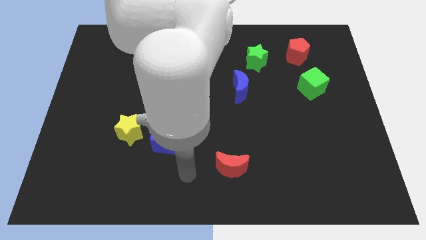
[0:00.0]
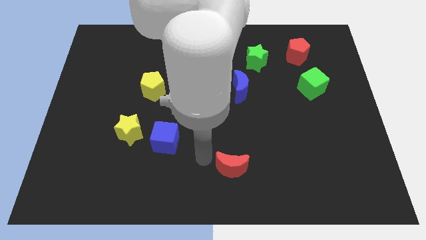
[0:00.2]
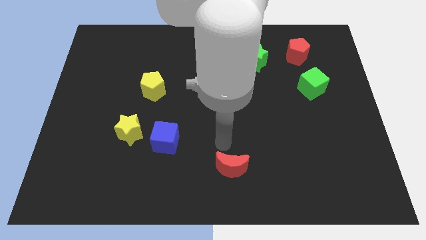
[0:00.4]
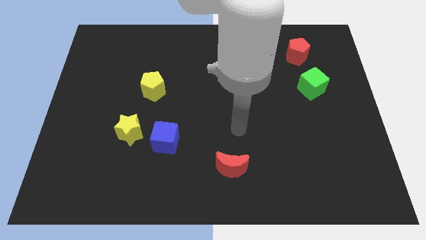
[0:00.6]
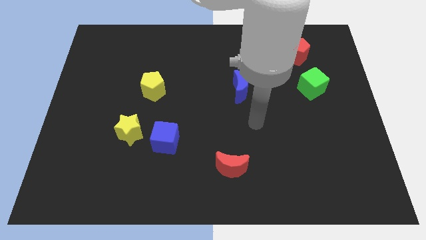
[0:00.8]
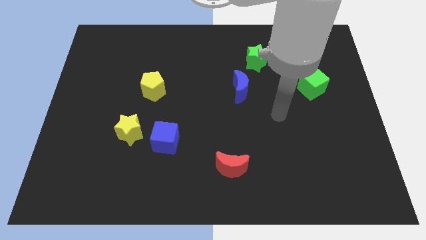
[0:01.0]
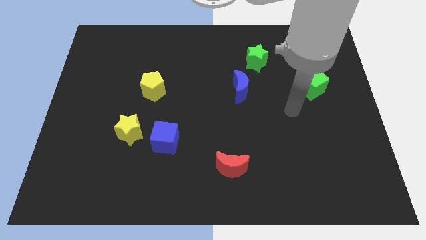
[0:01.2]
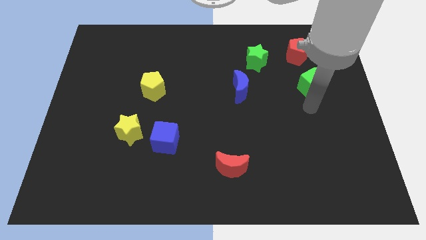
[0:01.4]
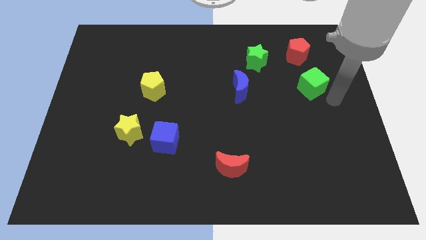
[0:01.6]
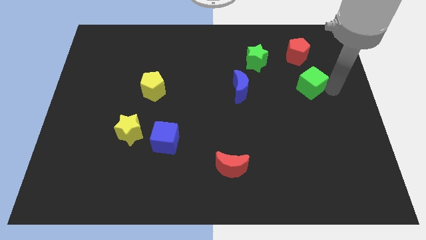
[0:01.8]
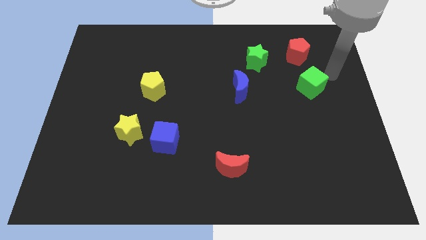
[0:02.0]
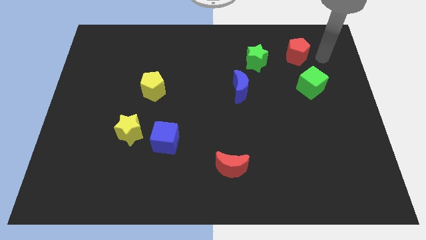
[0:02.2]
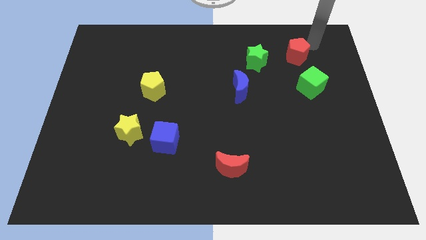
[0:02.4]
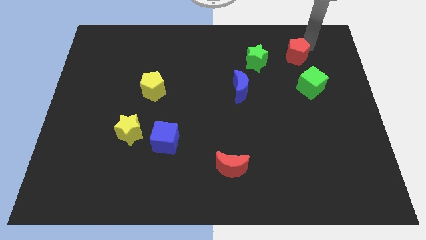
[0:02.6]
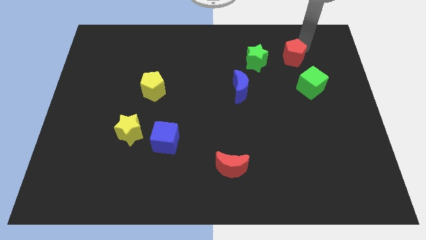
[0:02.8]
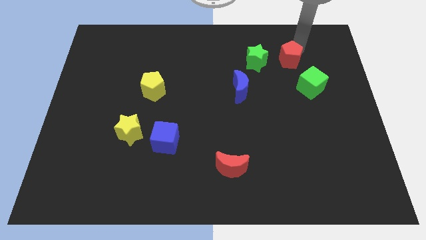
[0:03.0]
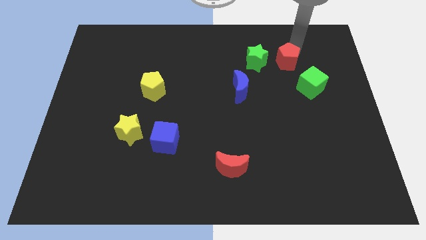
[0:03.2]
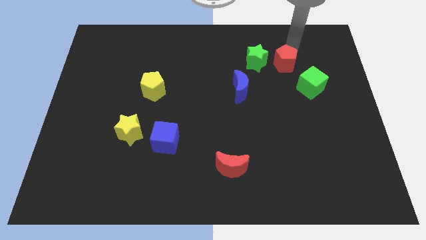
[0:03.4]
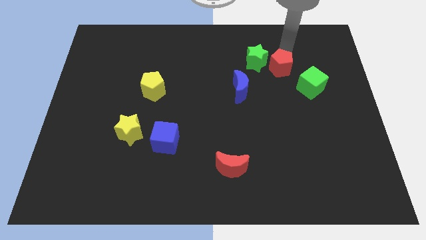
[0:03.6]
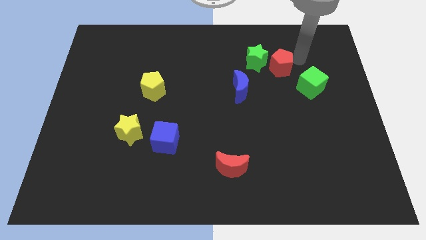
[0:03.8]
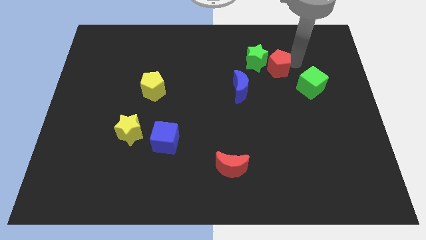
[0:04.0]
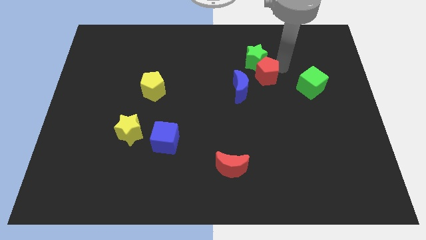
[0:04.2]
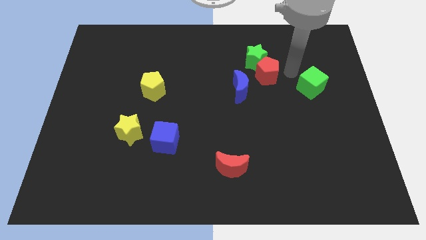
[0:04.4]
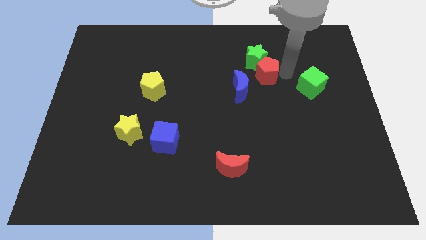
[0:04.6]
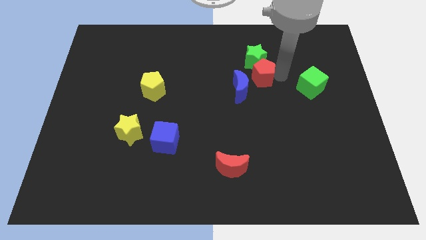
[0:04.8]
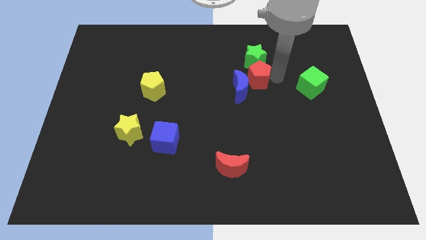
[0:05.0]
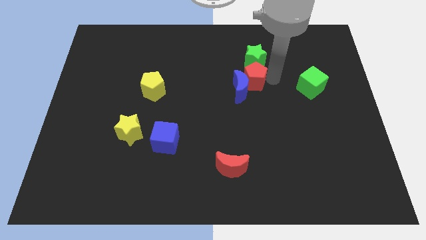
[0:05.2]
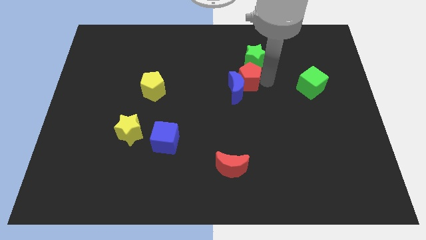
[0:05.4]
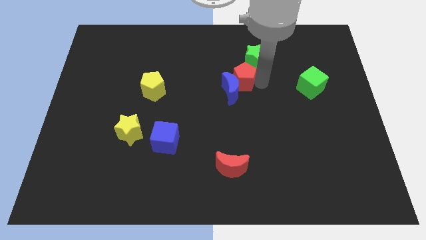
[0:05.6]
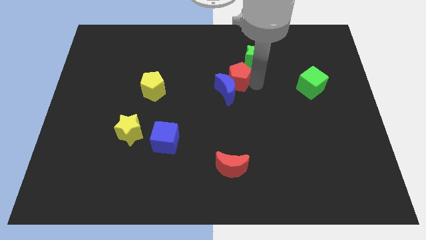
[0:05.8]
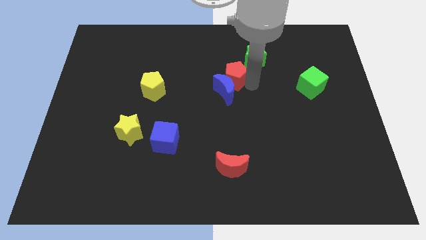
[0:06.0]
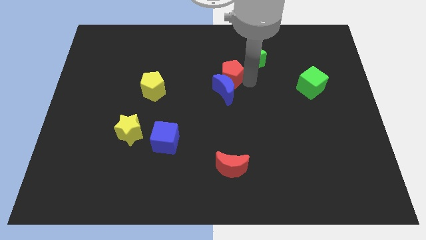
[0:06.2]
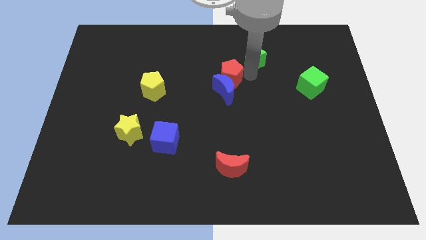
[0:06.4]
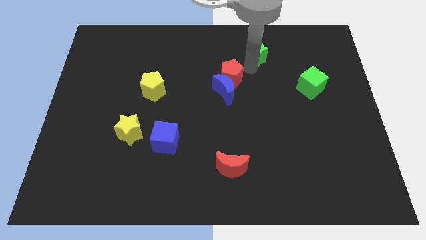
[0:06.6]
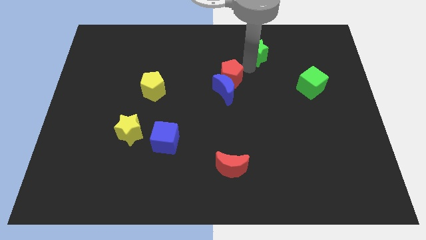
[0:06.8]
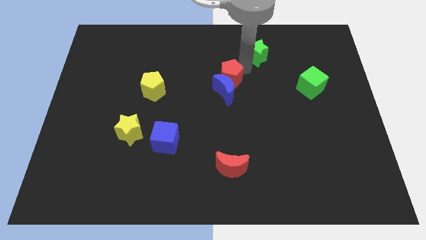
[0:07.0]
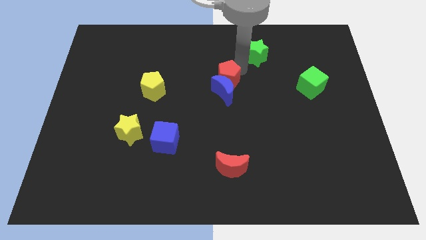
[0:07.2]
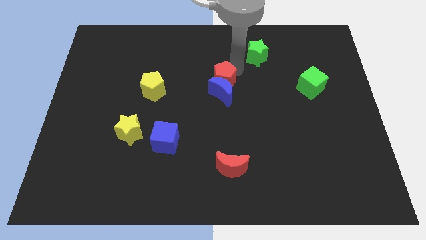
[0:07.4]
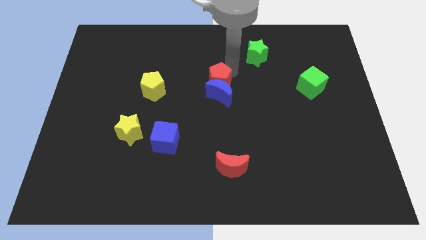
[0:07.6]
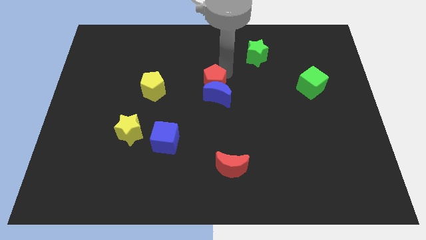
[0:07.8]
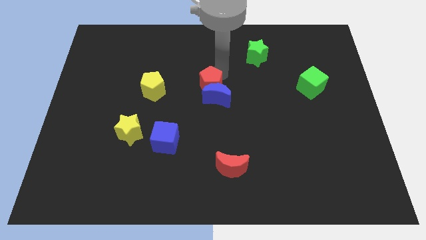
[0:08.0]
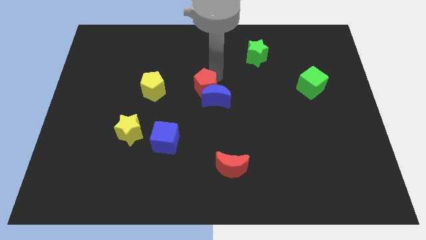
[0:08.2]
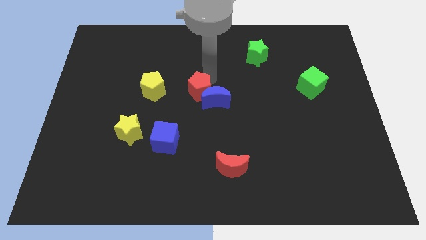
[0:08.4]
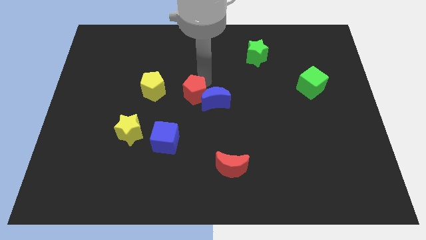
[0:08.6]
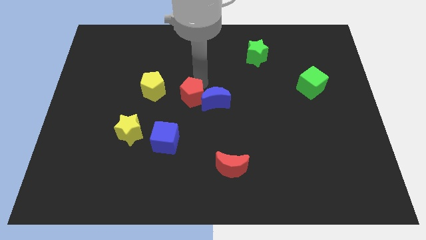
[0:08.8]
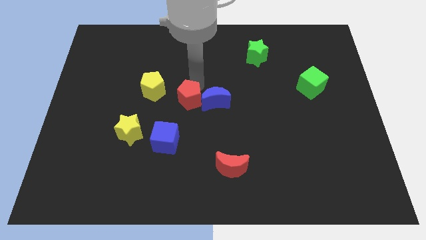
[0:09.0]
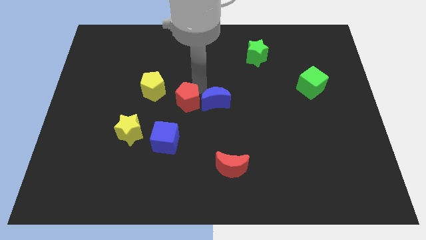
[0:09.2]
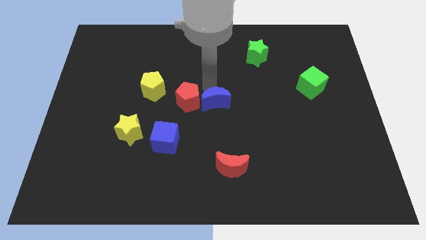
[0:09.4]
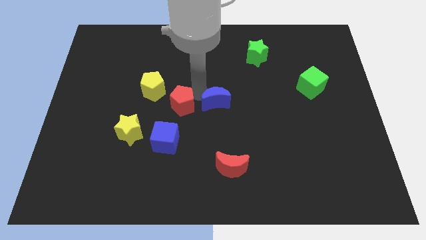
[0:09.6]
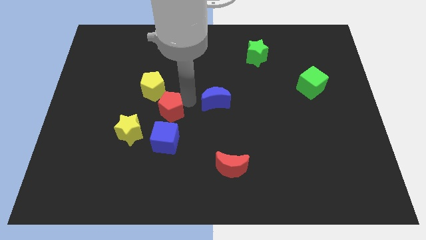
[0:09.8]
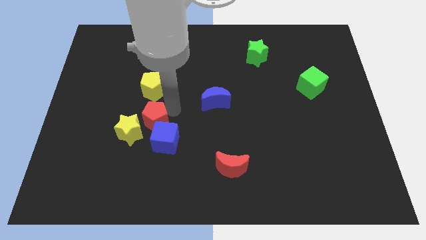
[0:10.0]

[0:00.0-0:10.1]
slide the red pentagon to the yellow star

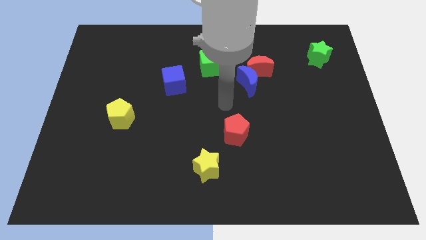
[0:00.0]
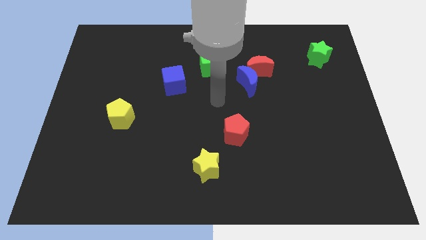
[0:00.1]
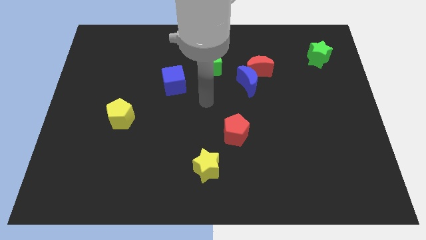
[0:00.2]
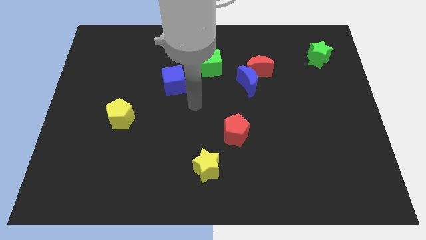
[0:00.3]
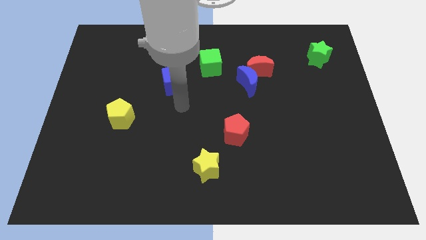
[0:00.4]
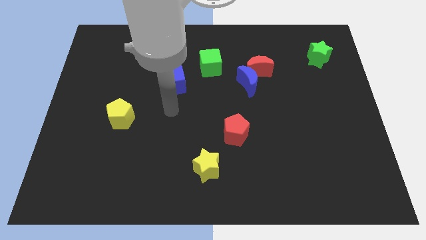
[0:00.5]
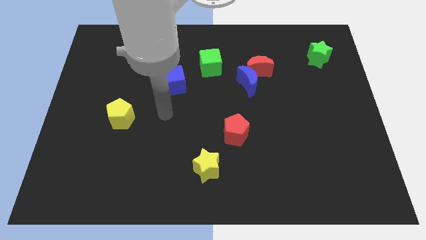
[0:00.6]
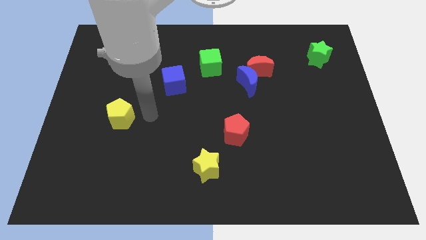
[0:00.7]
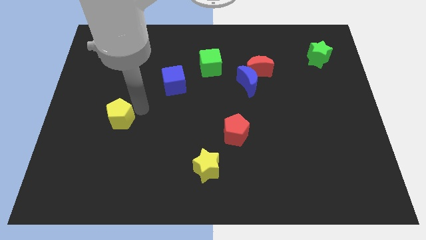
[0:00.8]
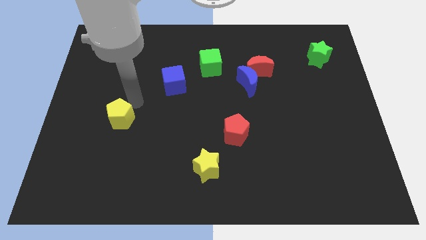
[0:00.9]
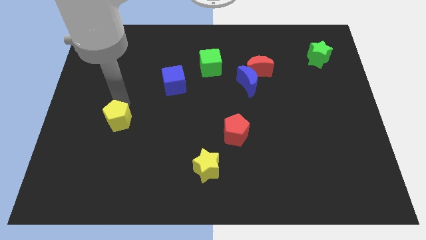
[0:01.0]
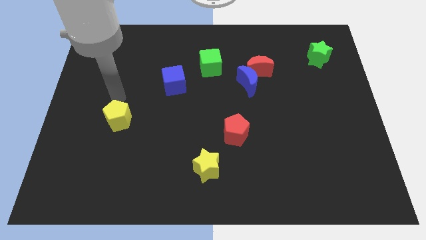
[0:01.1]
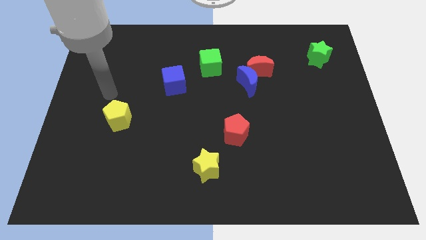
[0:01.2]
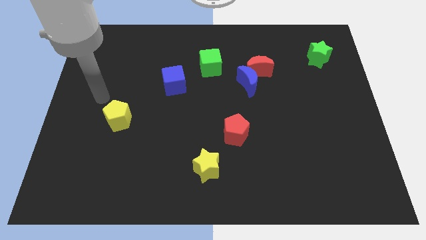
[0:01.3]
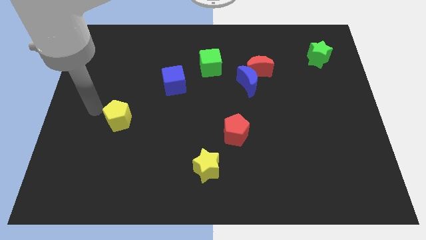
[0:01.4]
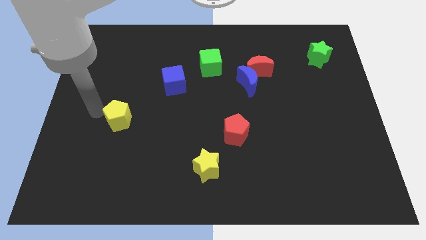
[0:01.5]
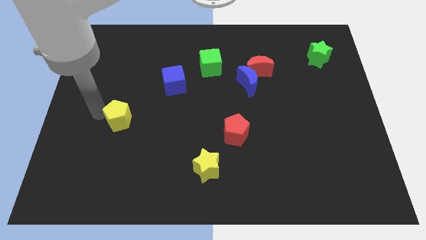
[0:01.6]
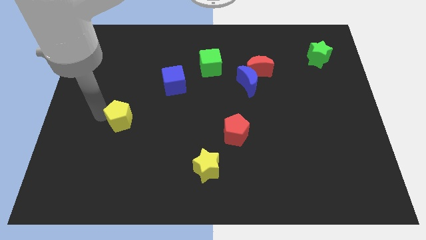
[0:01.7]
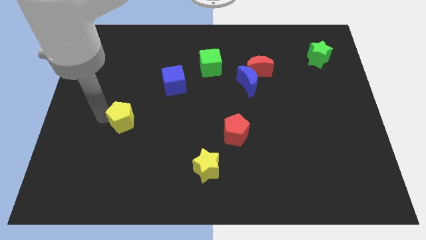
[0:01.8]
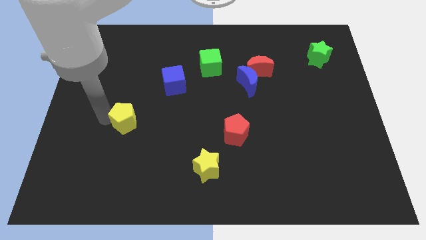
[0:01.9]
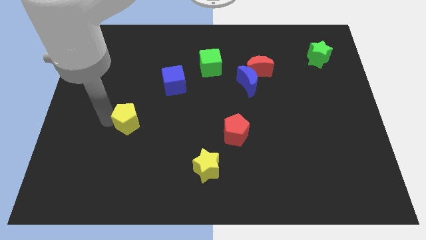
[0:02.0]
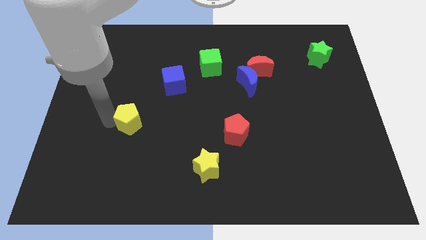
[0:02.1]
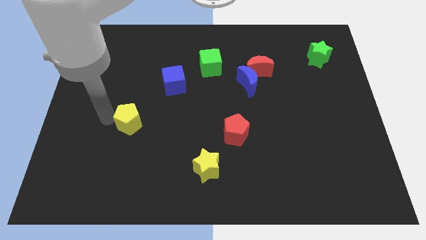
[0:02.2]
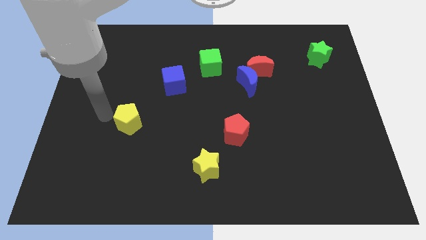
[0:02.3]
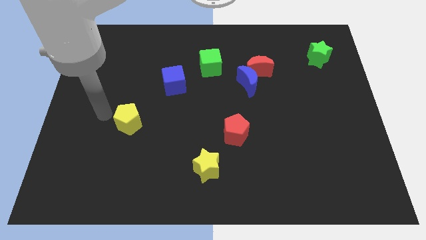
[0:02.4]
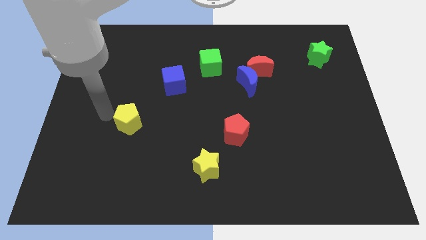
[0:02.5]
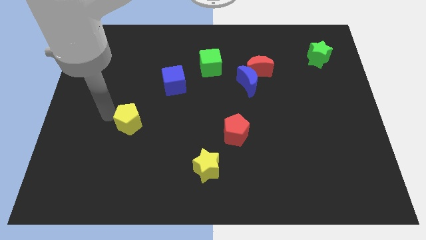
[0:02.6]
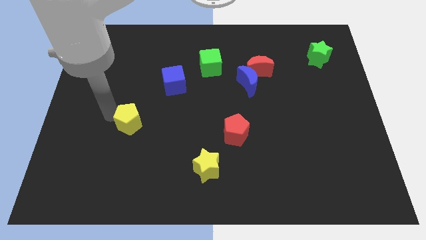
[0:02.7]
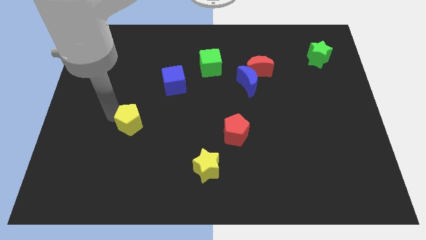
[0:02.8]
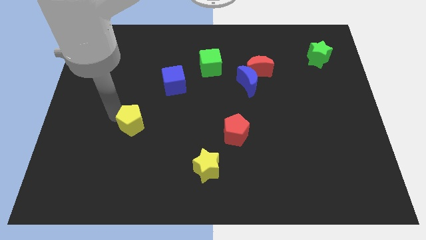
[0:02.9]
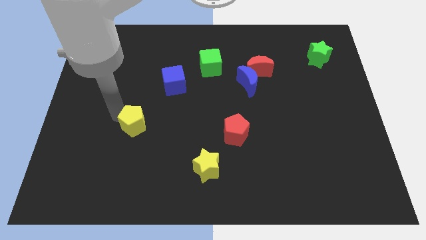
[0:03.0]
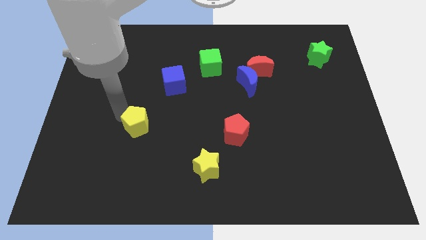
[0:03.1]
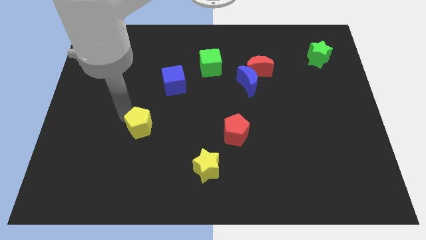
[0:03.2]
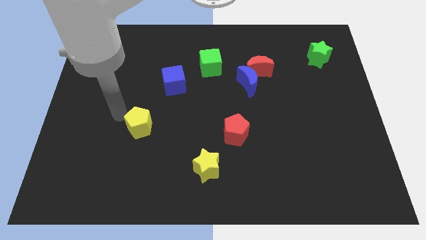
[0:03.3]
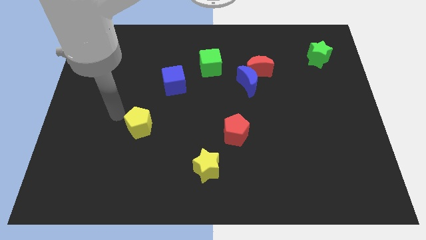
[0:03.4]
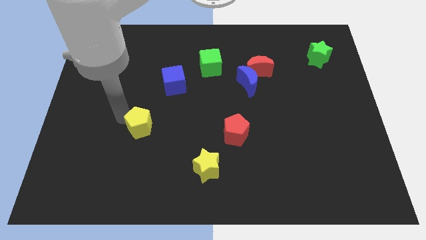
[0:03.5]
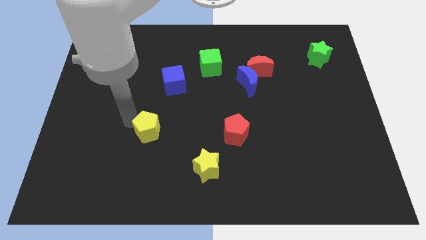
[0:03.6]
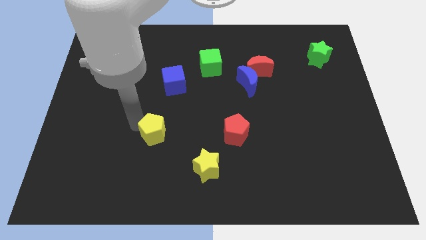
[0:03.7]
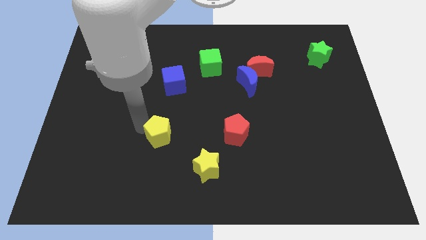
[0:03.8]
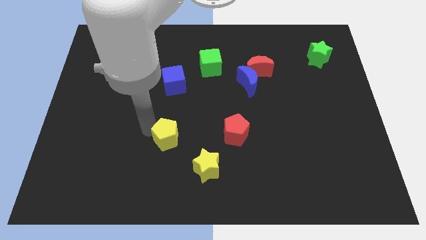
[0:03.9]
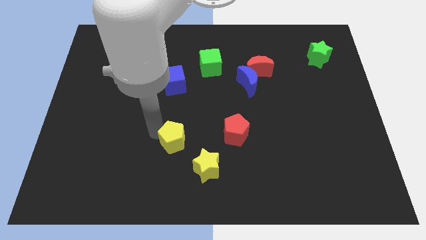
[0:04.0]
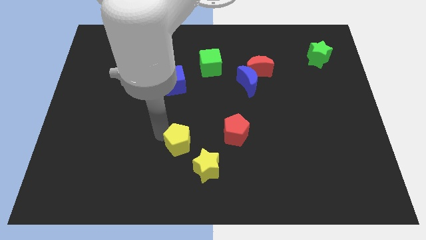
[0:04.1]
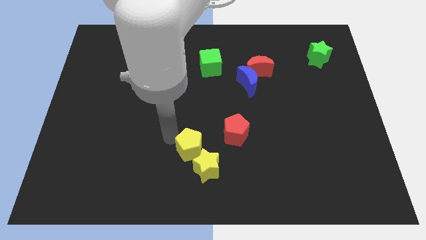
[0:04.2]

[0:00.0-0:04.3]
slide the yellow pentagon close to the yellow star
